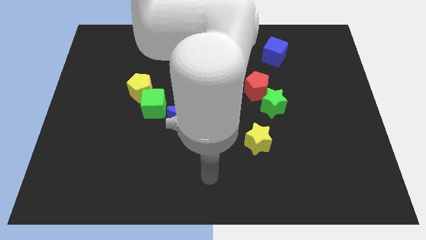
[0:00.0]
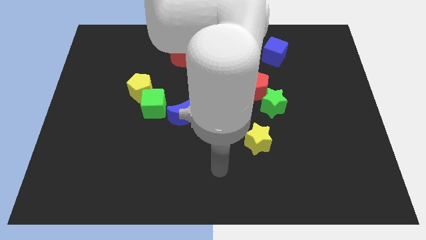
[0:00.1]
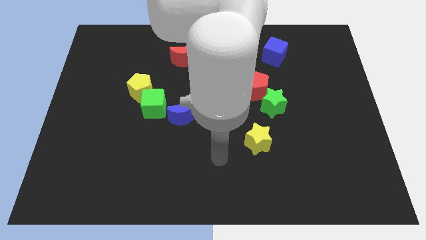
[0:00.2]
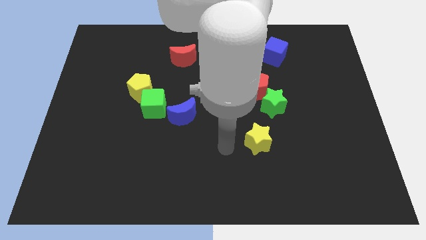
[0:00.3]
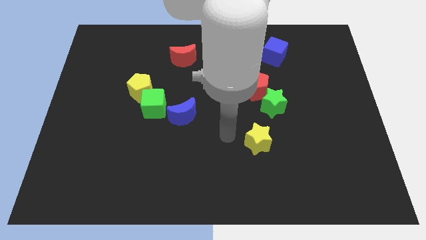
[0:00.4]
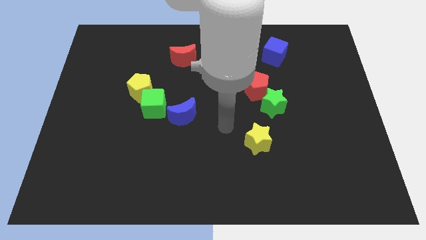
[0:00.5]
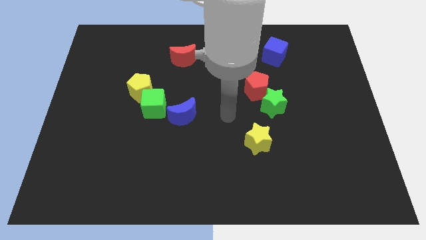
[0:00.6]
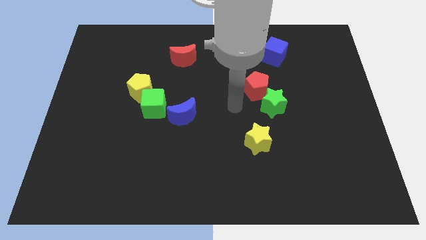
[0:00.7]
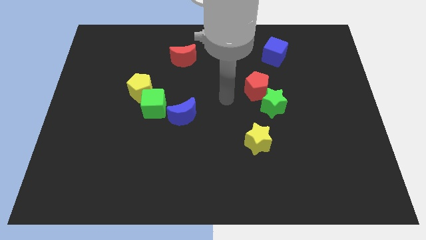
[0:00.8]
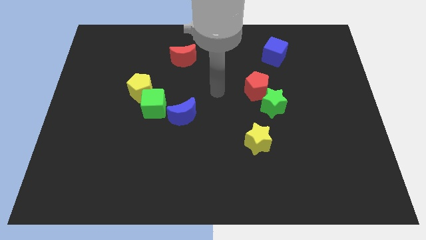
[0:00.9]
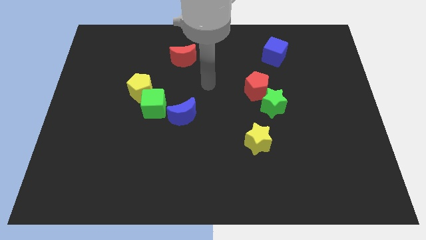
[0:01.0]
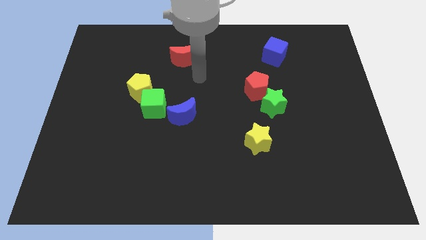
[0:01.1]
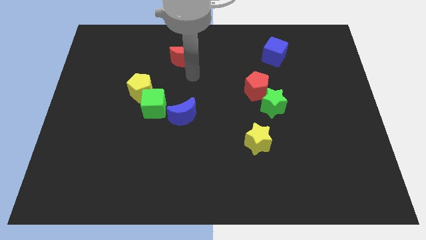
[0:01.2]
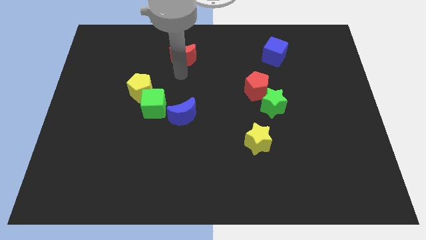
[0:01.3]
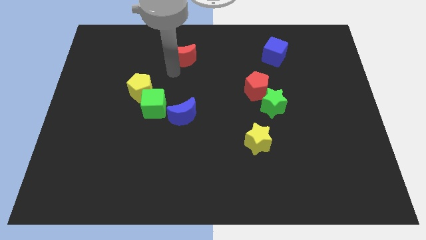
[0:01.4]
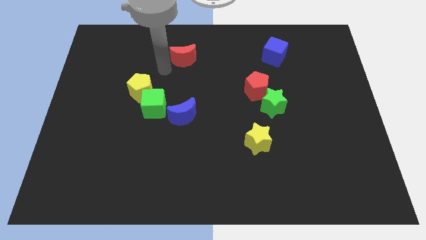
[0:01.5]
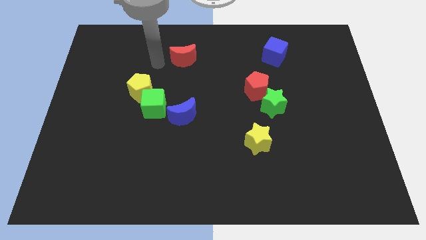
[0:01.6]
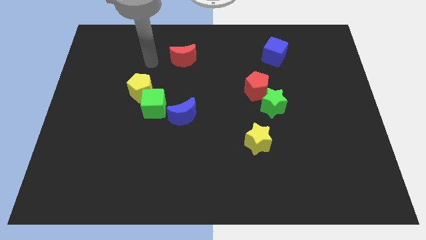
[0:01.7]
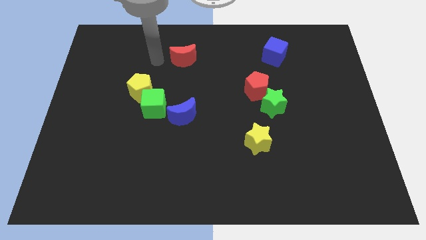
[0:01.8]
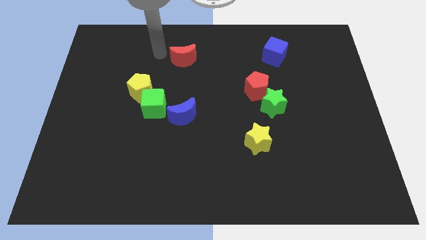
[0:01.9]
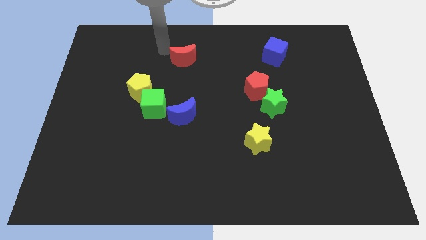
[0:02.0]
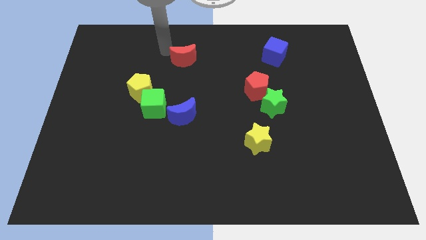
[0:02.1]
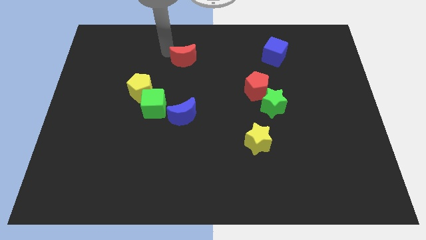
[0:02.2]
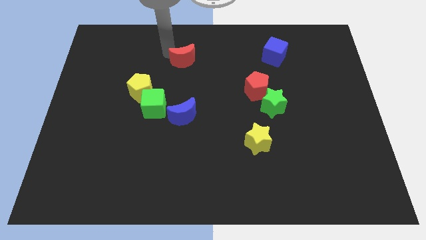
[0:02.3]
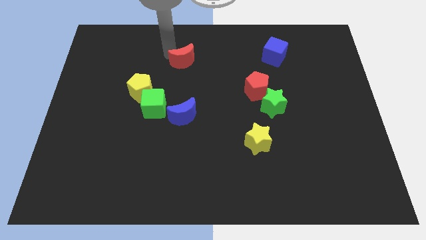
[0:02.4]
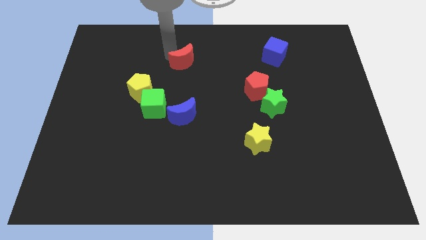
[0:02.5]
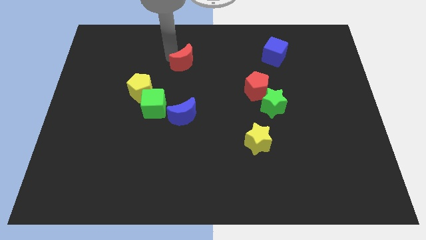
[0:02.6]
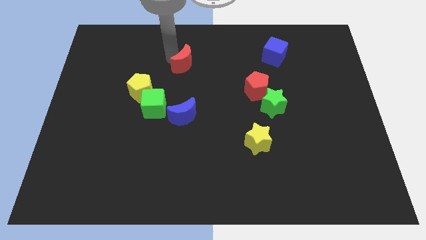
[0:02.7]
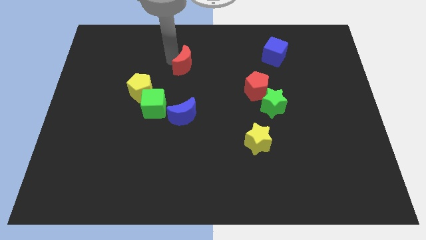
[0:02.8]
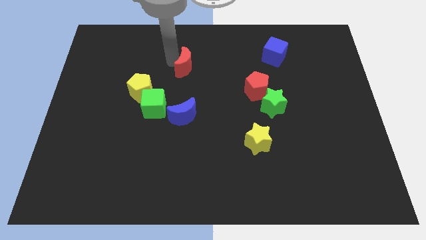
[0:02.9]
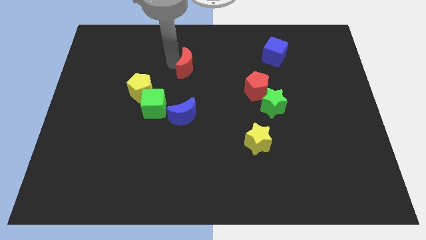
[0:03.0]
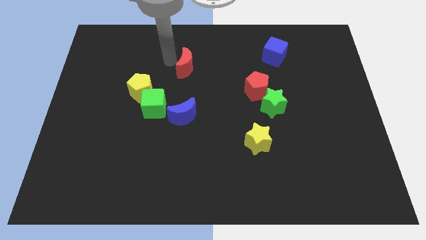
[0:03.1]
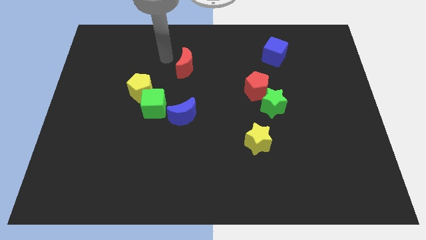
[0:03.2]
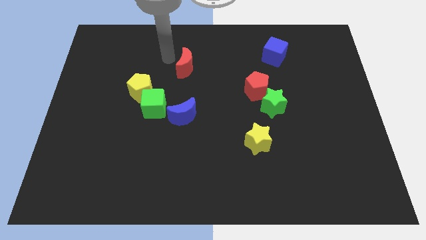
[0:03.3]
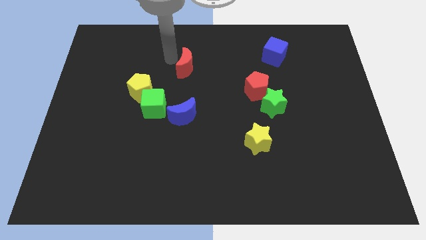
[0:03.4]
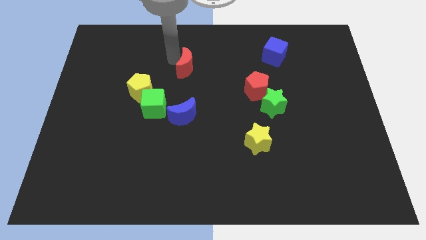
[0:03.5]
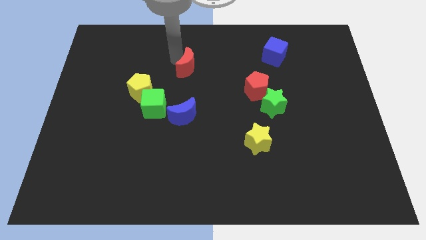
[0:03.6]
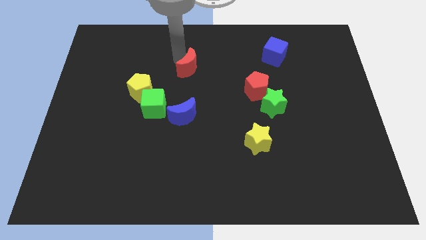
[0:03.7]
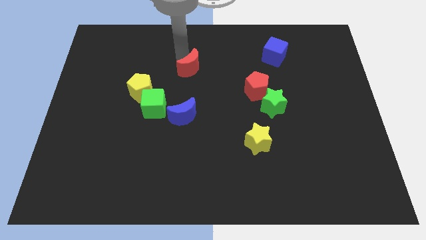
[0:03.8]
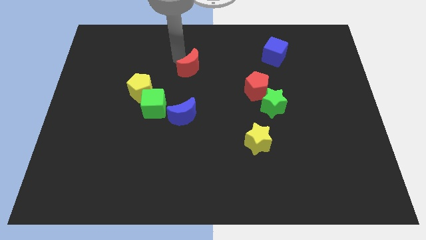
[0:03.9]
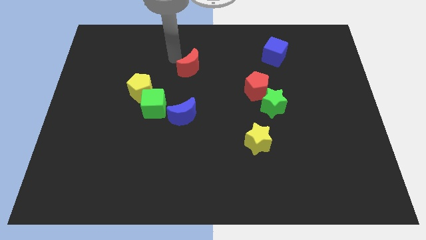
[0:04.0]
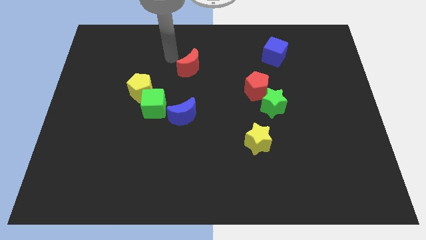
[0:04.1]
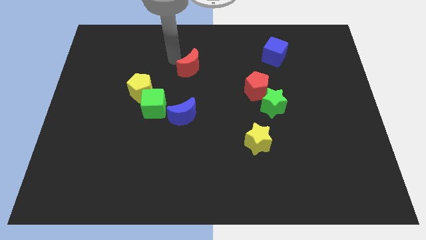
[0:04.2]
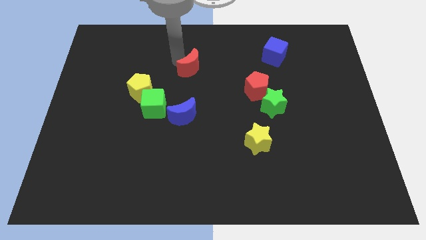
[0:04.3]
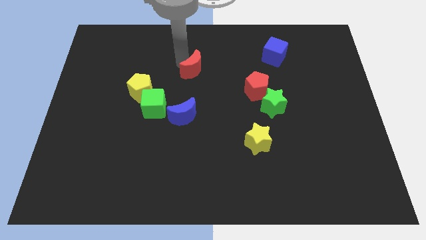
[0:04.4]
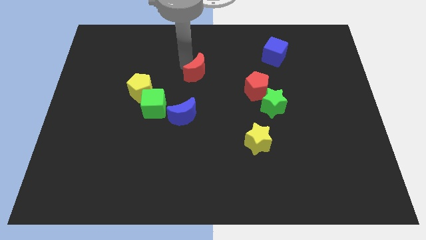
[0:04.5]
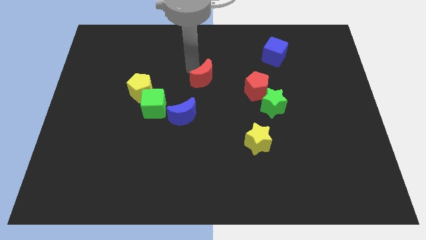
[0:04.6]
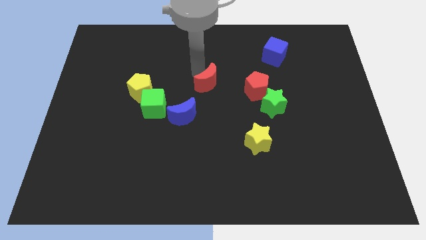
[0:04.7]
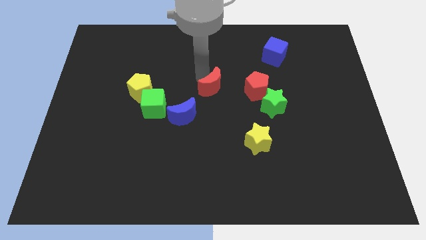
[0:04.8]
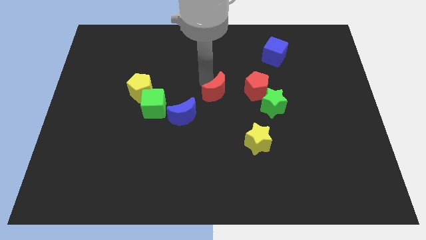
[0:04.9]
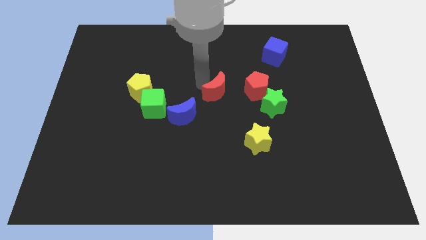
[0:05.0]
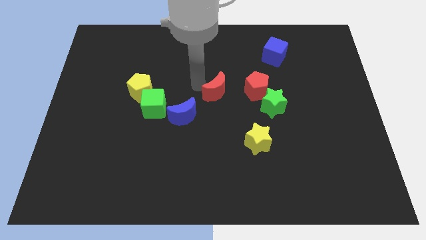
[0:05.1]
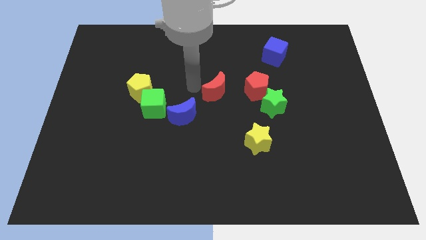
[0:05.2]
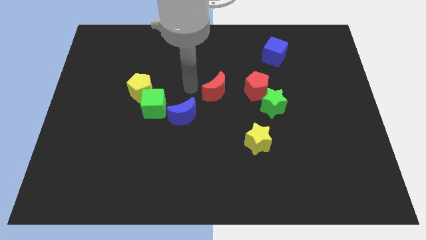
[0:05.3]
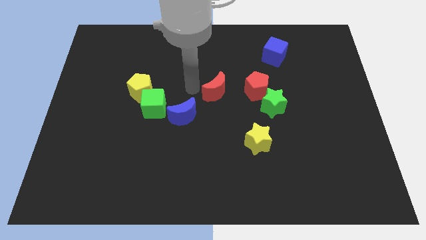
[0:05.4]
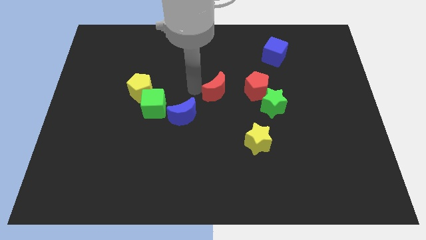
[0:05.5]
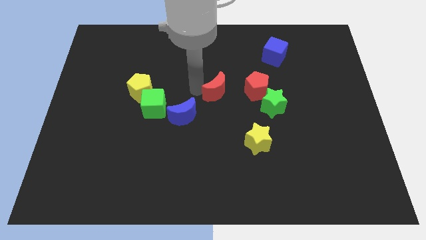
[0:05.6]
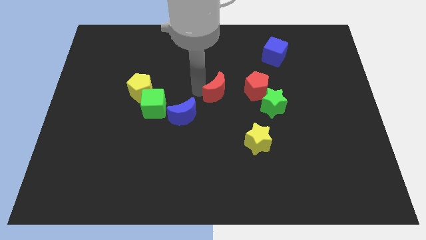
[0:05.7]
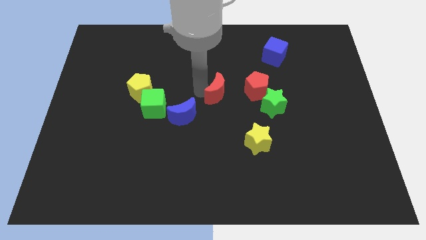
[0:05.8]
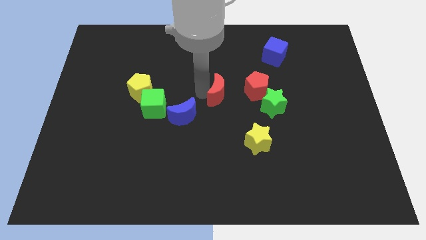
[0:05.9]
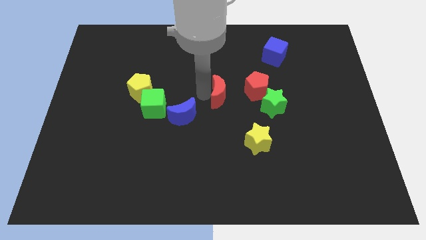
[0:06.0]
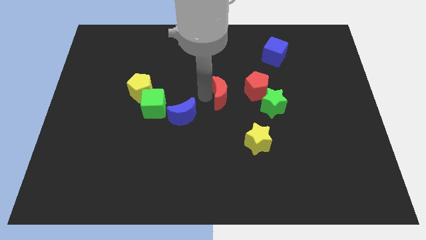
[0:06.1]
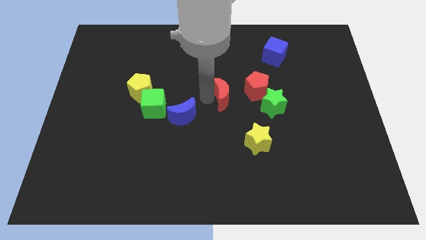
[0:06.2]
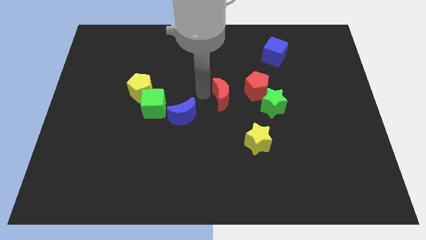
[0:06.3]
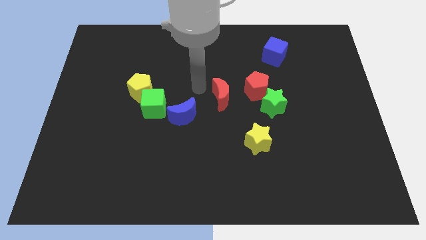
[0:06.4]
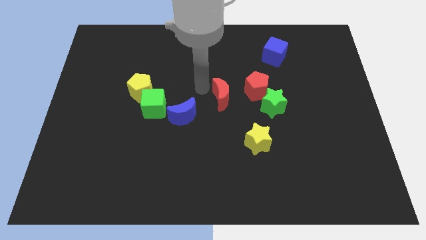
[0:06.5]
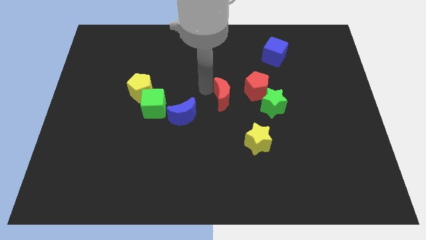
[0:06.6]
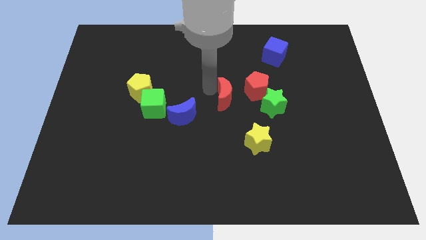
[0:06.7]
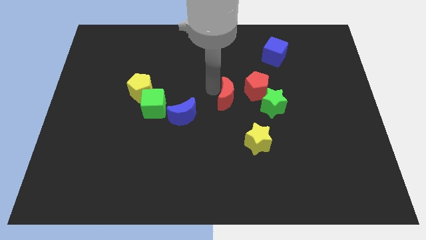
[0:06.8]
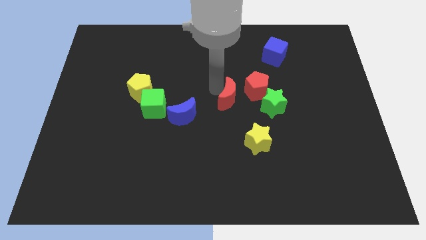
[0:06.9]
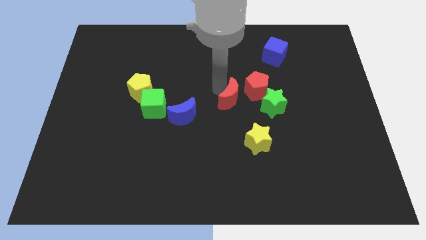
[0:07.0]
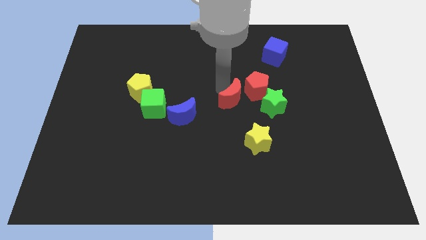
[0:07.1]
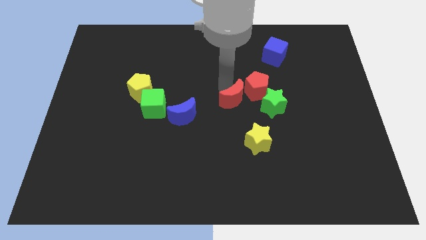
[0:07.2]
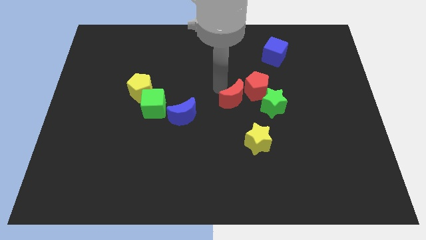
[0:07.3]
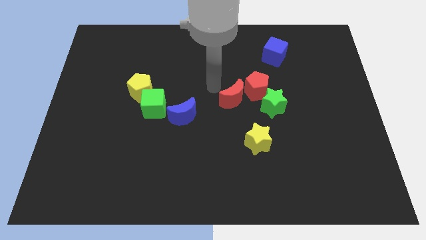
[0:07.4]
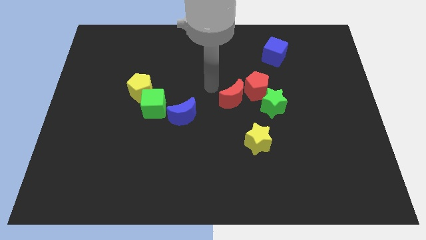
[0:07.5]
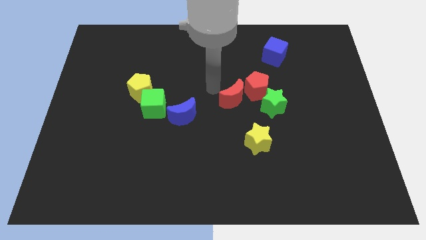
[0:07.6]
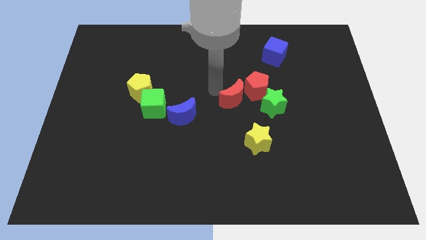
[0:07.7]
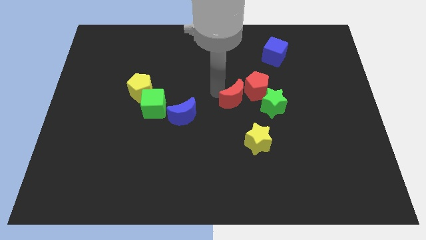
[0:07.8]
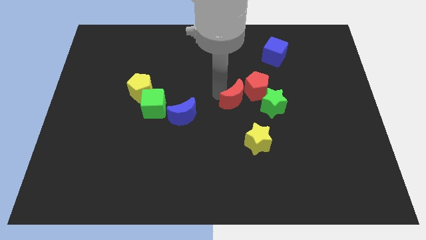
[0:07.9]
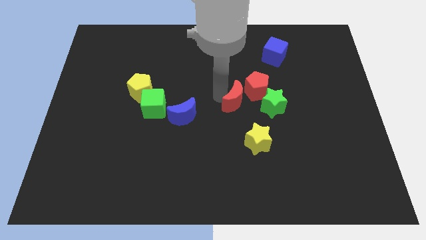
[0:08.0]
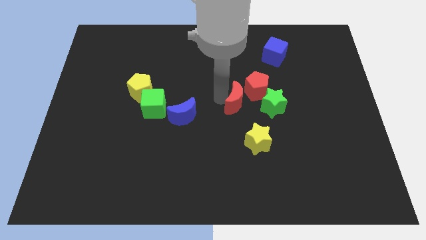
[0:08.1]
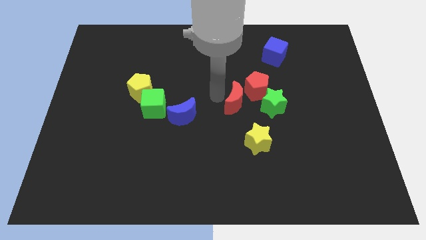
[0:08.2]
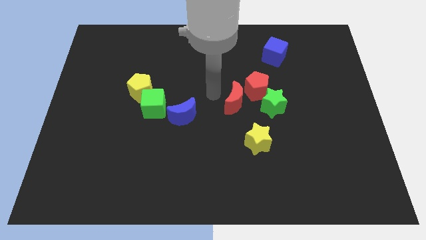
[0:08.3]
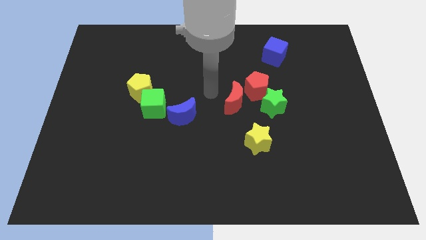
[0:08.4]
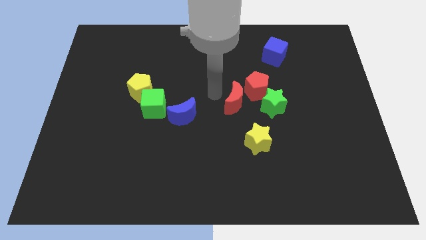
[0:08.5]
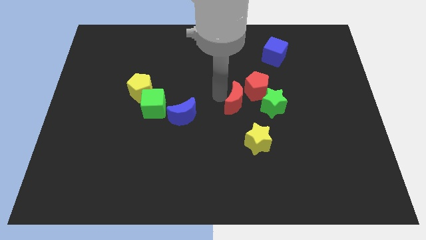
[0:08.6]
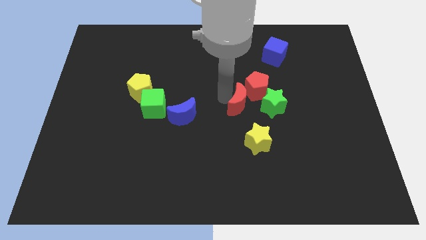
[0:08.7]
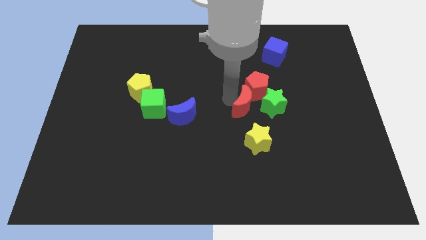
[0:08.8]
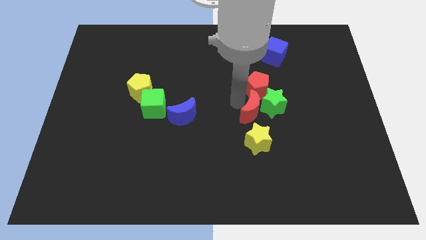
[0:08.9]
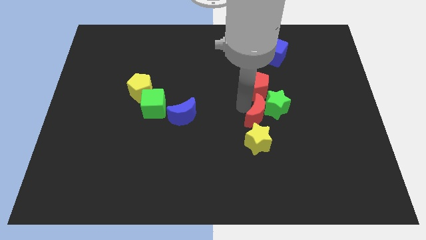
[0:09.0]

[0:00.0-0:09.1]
push the red moon to the top right side of the yellow star
